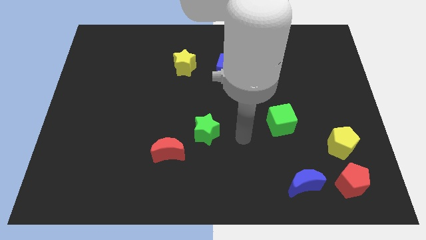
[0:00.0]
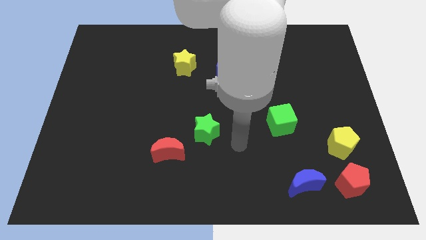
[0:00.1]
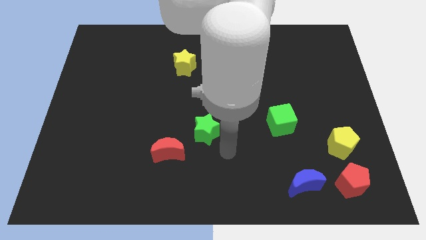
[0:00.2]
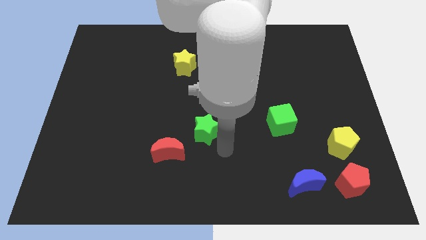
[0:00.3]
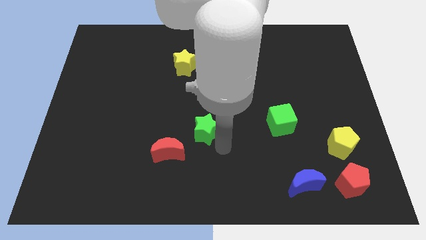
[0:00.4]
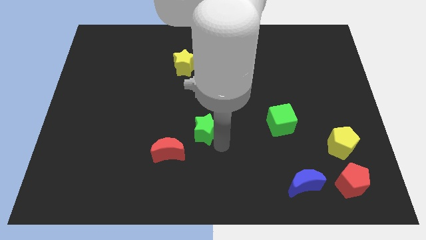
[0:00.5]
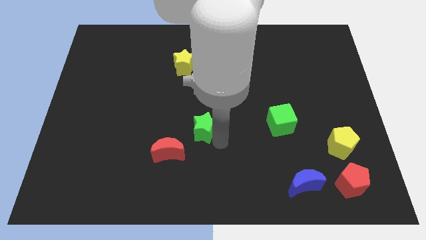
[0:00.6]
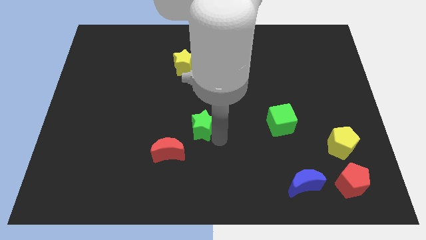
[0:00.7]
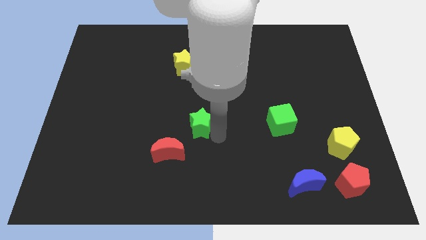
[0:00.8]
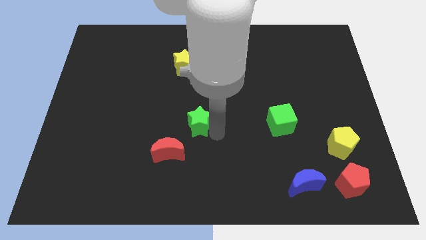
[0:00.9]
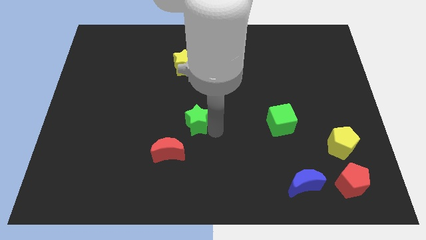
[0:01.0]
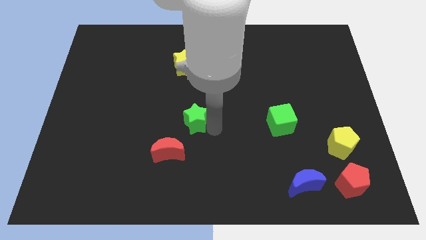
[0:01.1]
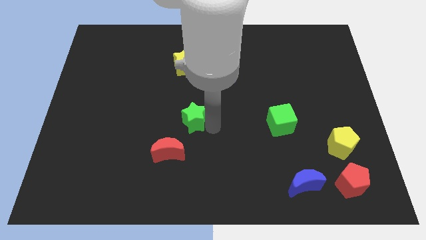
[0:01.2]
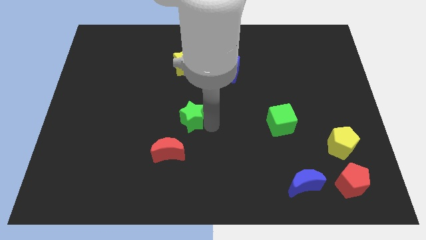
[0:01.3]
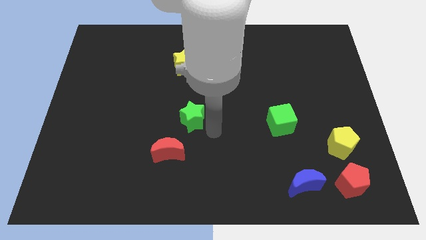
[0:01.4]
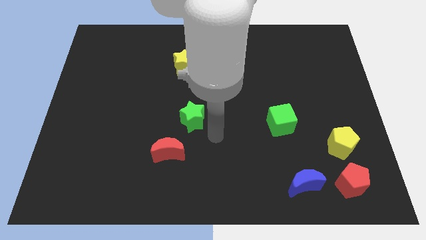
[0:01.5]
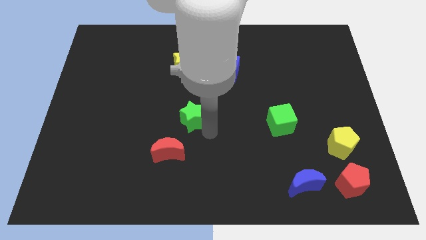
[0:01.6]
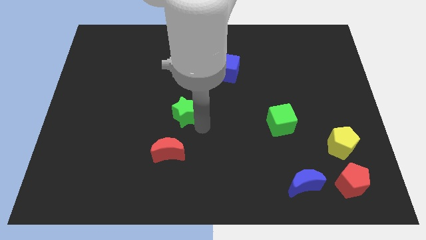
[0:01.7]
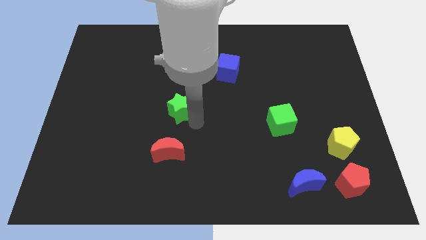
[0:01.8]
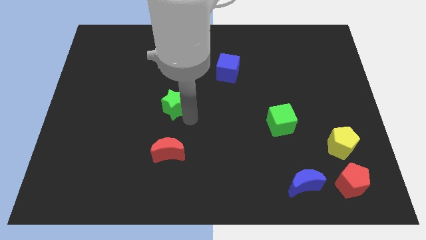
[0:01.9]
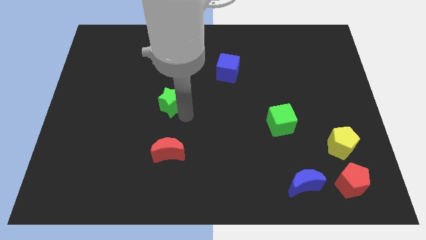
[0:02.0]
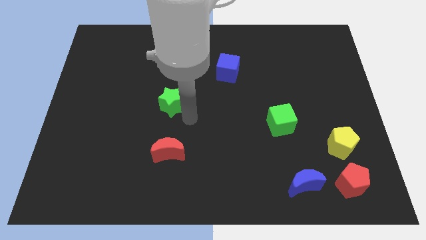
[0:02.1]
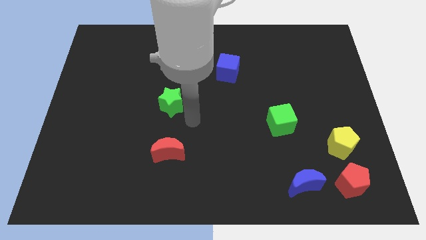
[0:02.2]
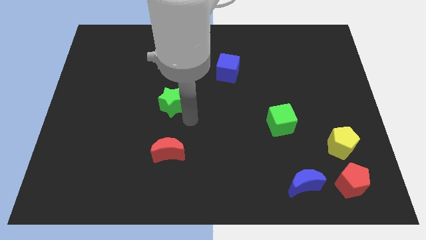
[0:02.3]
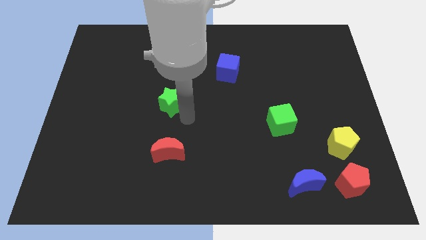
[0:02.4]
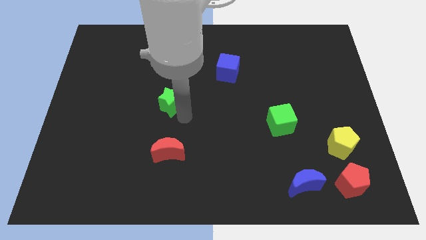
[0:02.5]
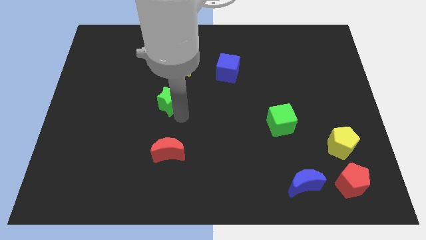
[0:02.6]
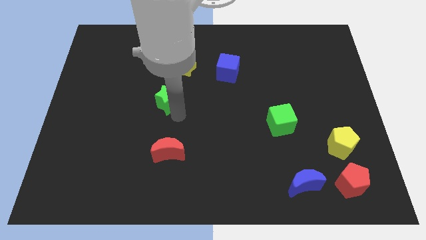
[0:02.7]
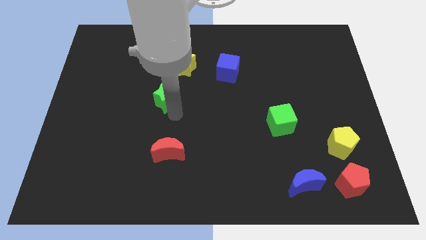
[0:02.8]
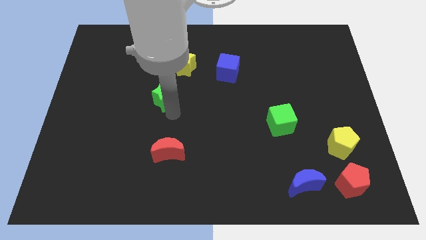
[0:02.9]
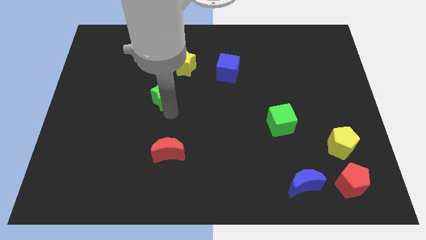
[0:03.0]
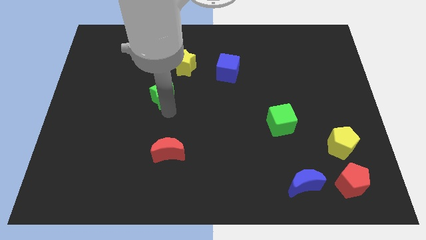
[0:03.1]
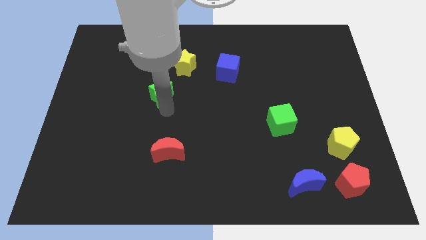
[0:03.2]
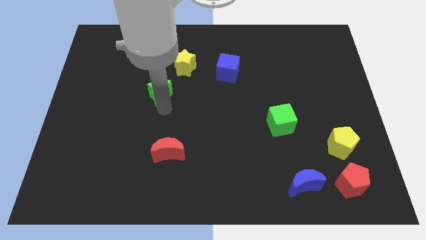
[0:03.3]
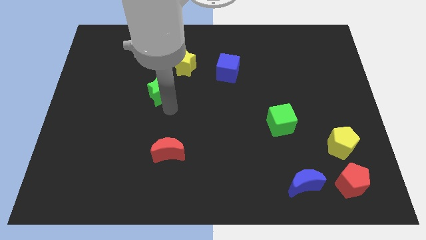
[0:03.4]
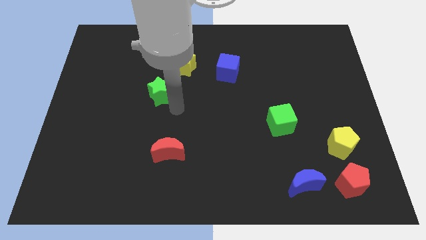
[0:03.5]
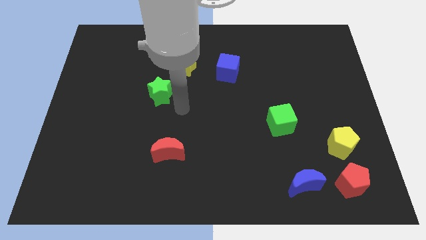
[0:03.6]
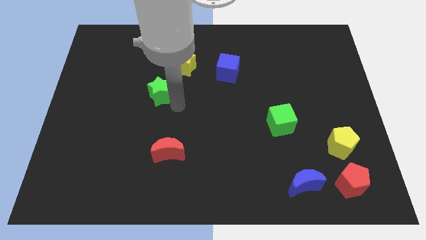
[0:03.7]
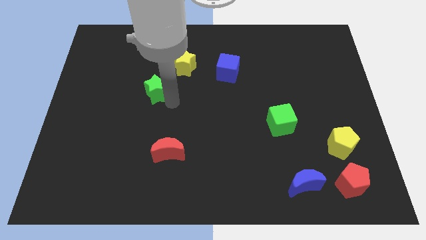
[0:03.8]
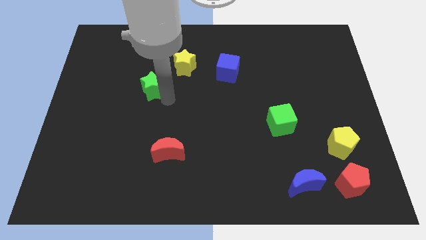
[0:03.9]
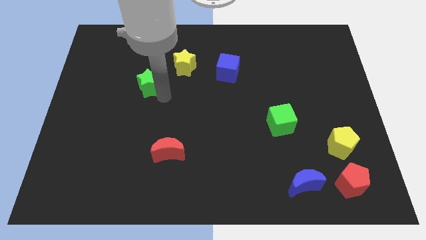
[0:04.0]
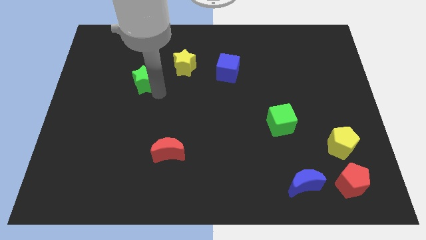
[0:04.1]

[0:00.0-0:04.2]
push the green star up and to the left diagonally

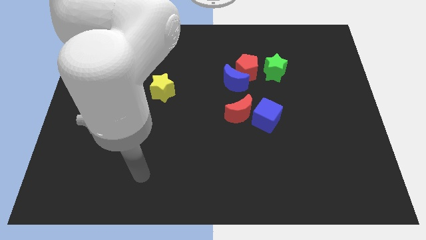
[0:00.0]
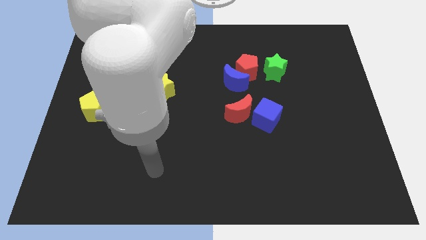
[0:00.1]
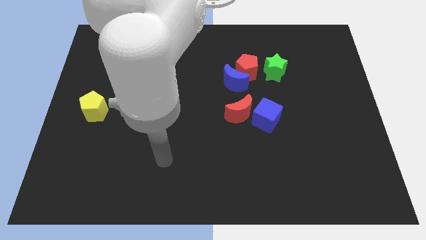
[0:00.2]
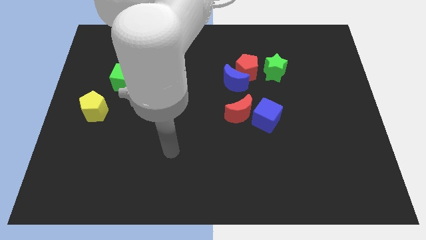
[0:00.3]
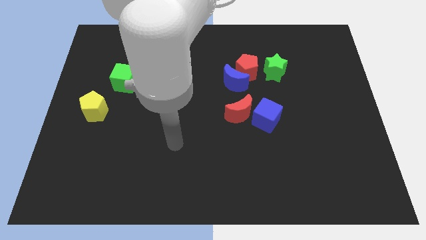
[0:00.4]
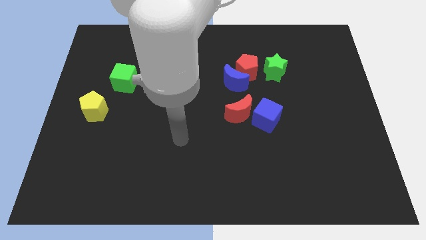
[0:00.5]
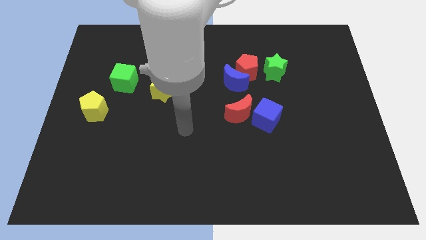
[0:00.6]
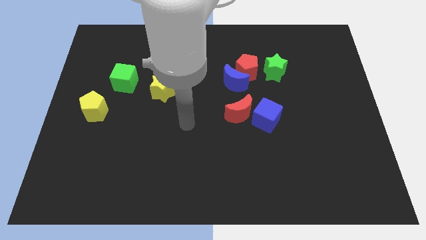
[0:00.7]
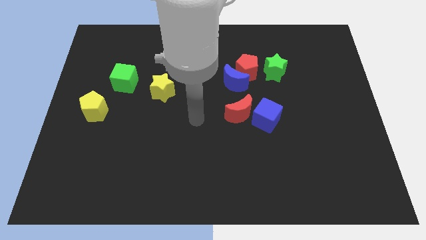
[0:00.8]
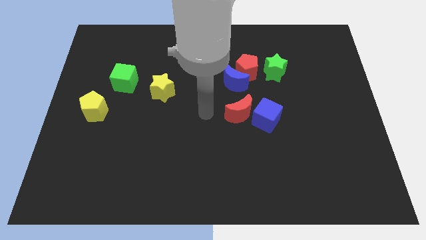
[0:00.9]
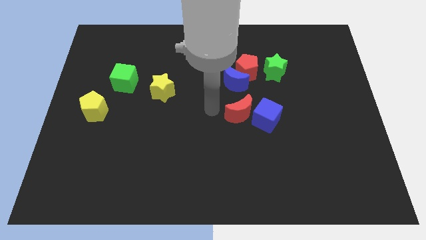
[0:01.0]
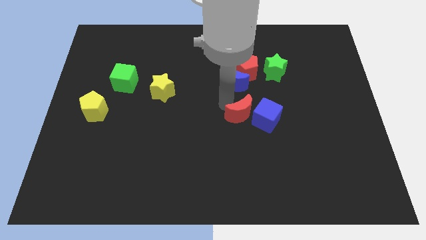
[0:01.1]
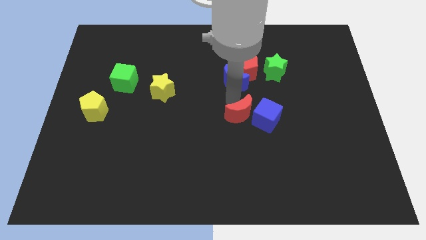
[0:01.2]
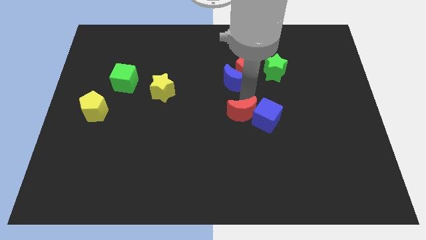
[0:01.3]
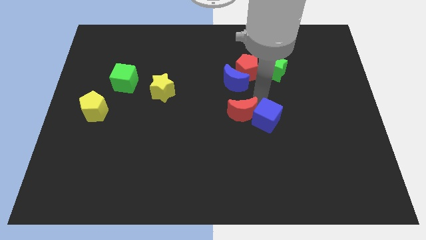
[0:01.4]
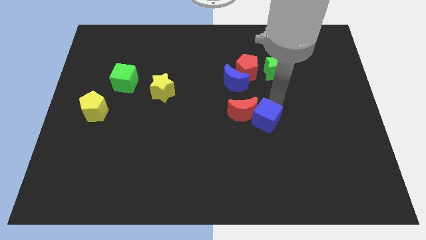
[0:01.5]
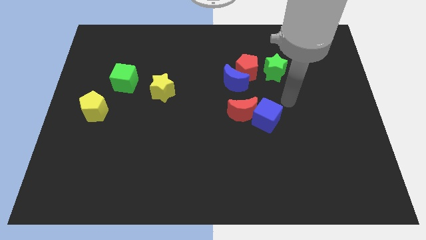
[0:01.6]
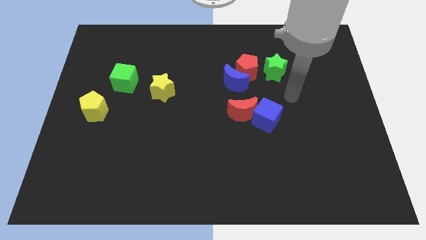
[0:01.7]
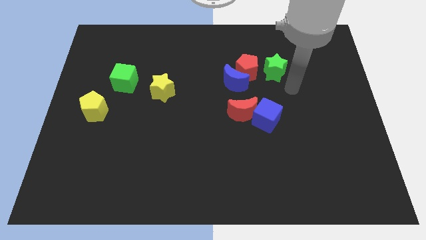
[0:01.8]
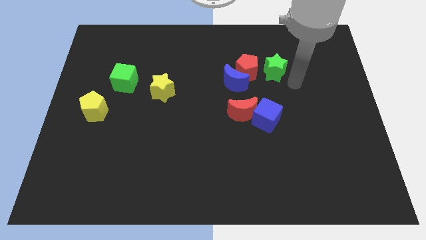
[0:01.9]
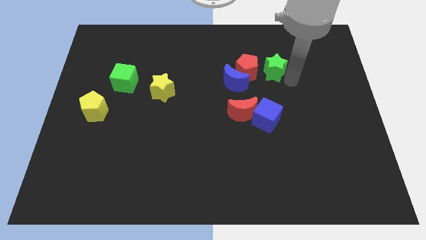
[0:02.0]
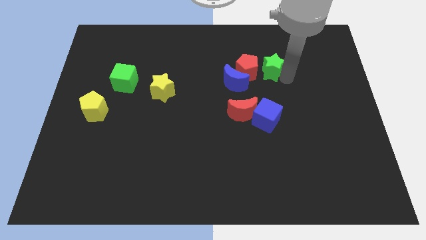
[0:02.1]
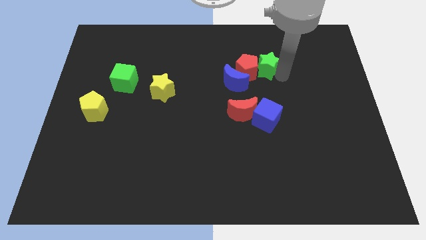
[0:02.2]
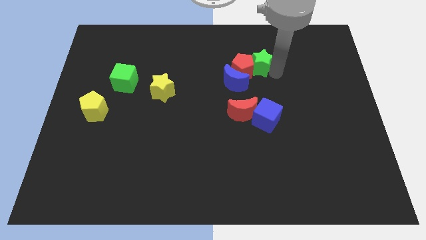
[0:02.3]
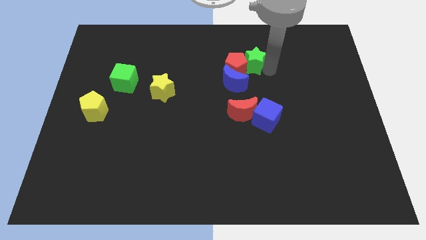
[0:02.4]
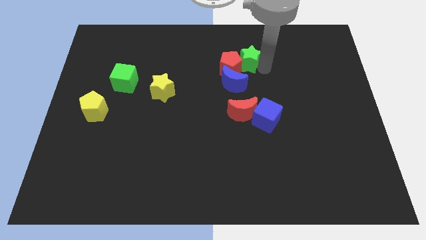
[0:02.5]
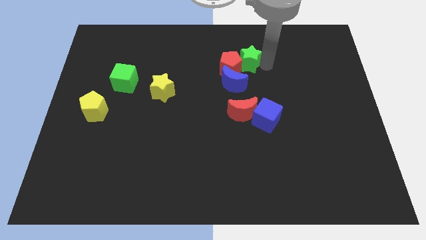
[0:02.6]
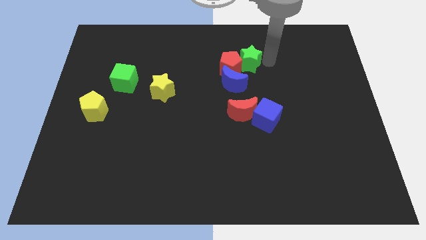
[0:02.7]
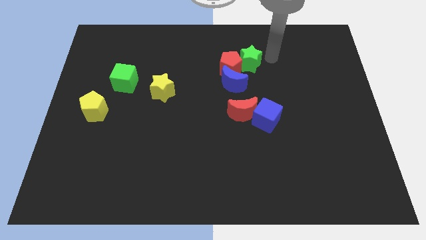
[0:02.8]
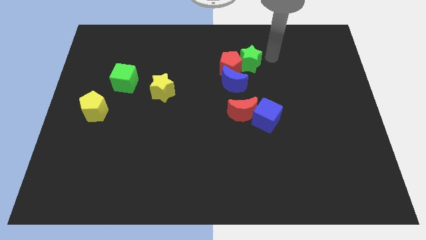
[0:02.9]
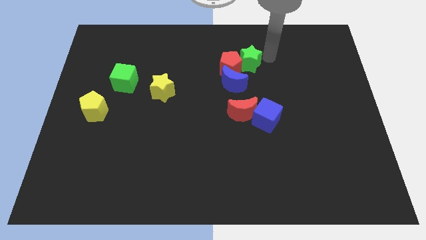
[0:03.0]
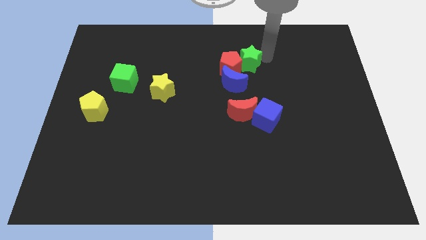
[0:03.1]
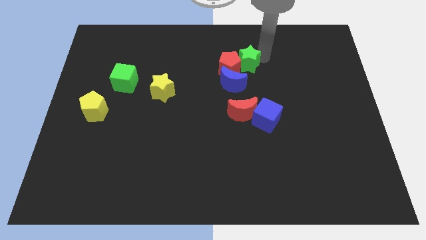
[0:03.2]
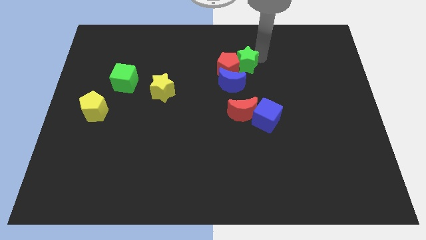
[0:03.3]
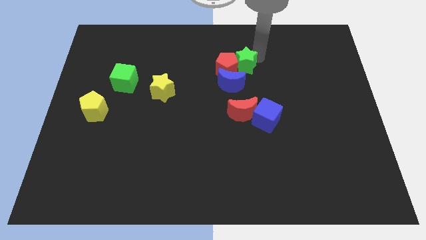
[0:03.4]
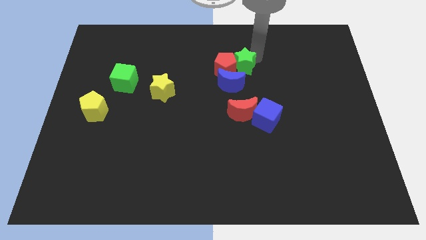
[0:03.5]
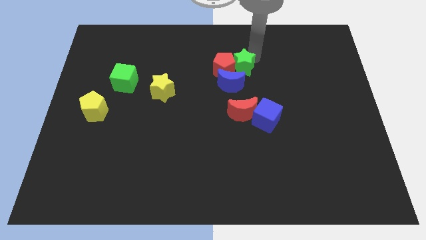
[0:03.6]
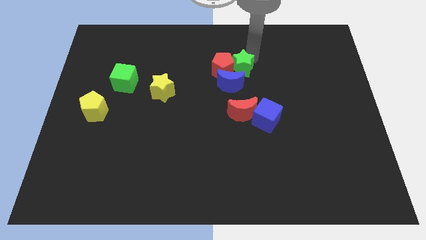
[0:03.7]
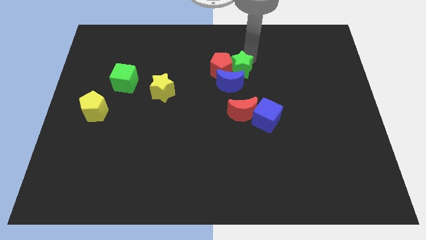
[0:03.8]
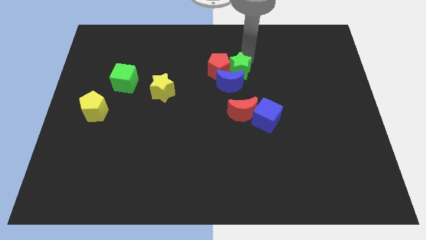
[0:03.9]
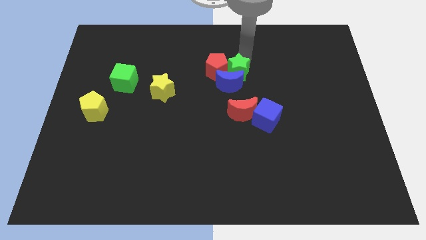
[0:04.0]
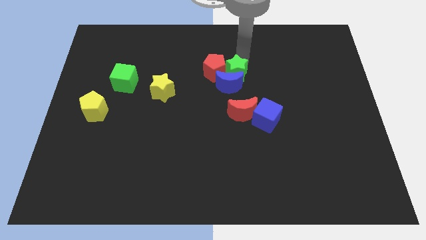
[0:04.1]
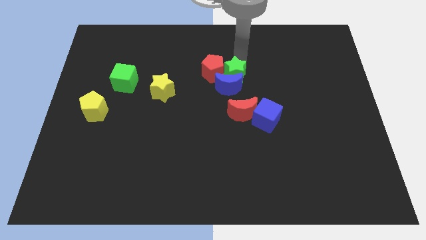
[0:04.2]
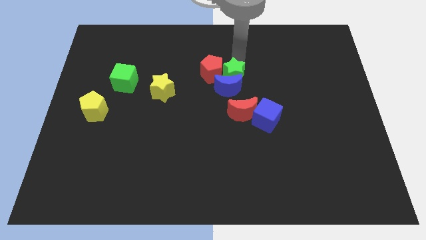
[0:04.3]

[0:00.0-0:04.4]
move the green star down and to the left diagonally a little
